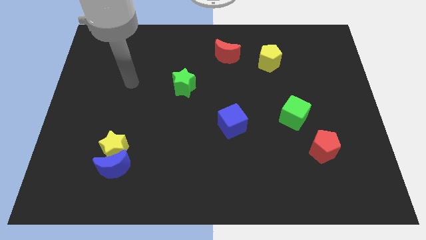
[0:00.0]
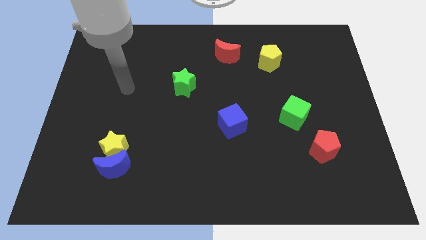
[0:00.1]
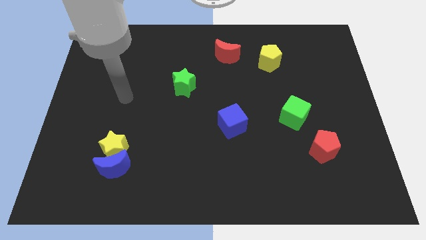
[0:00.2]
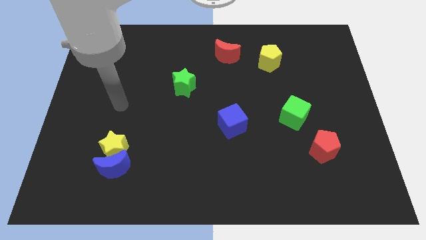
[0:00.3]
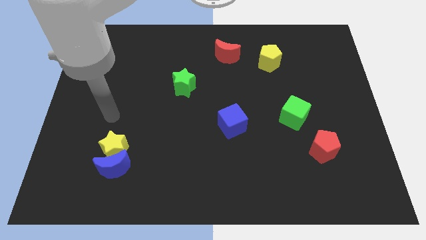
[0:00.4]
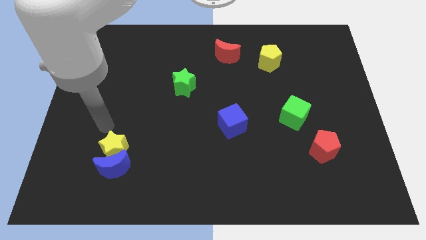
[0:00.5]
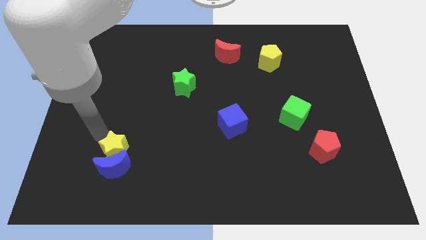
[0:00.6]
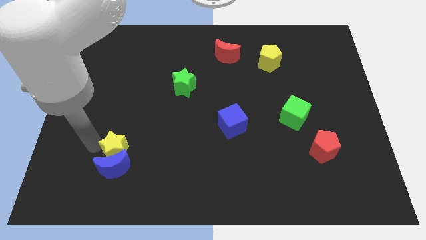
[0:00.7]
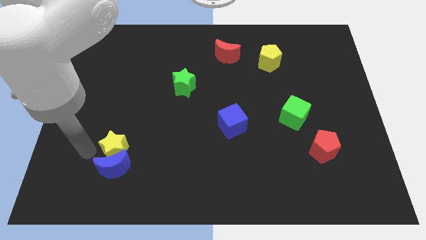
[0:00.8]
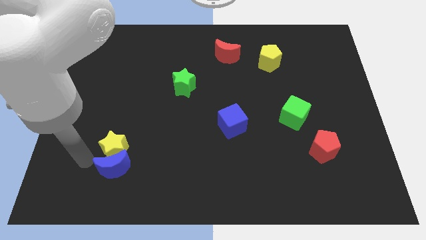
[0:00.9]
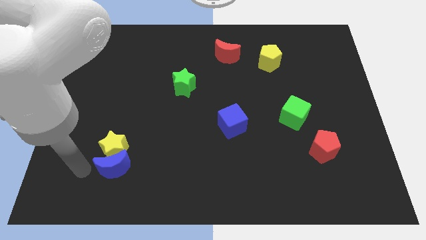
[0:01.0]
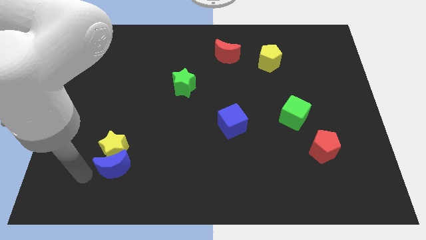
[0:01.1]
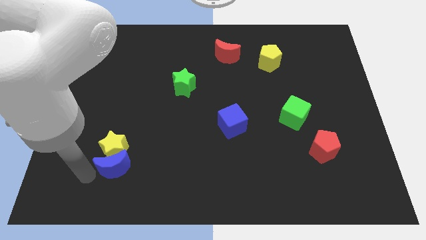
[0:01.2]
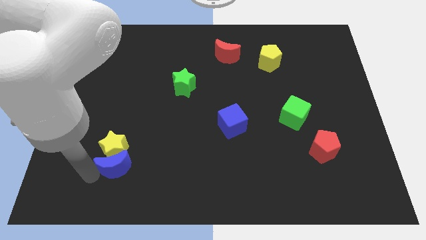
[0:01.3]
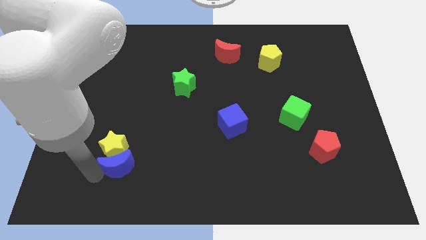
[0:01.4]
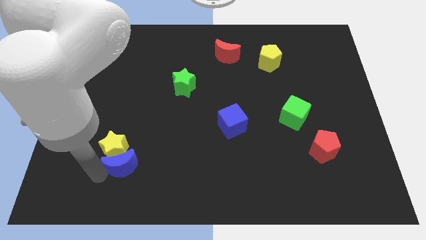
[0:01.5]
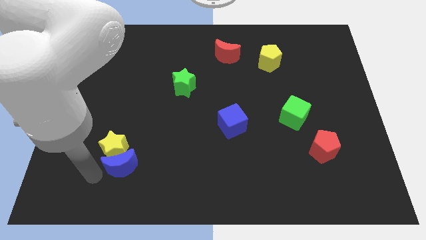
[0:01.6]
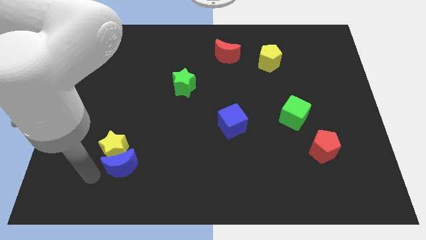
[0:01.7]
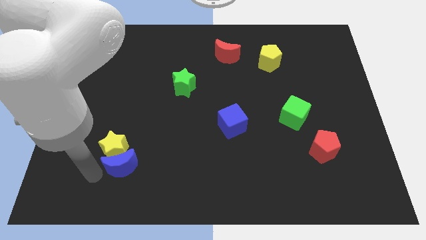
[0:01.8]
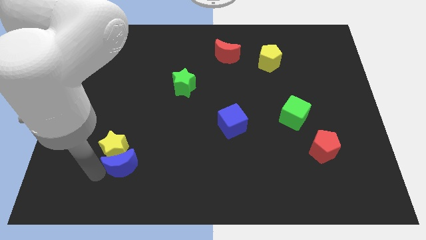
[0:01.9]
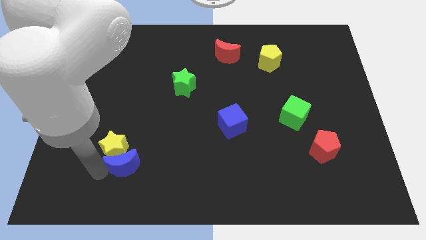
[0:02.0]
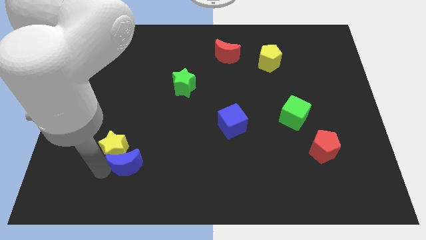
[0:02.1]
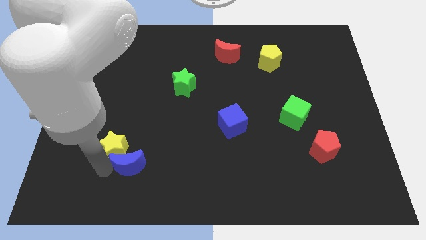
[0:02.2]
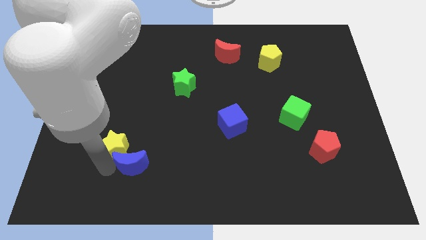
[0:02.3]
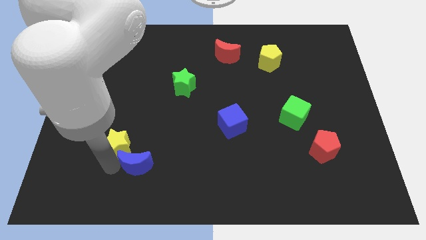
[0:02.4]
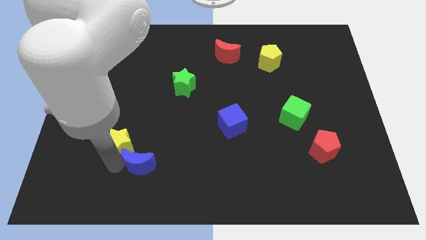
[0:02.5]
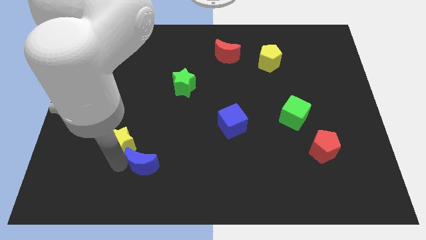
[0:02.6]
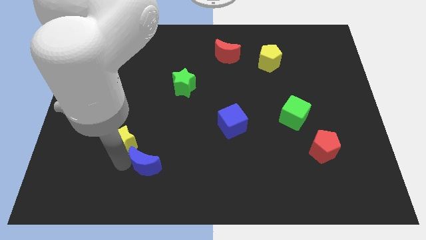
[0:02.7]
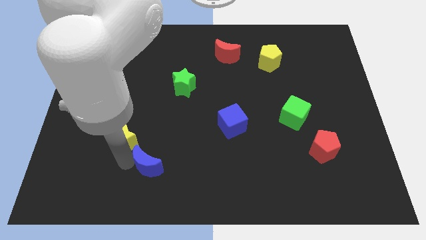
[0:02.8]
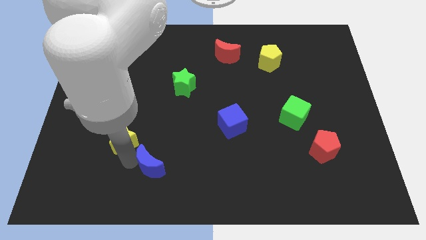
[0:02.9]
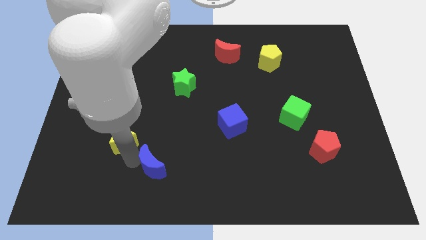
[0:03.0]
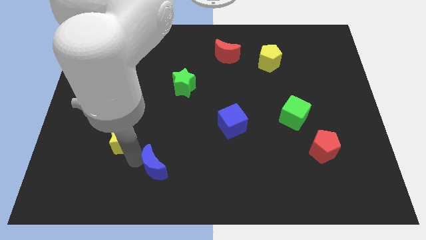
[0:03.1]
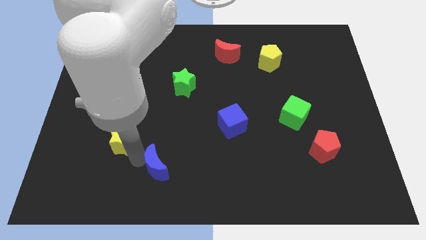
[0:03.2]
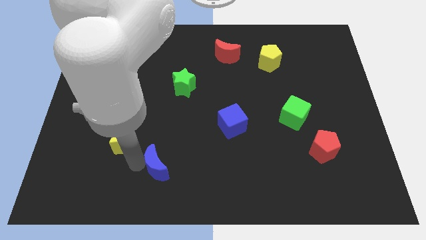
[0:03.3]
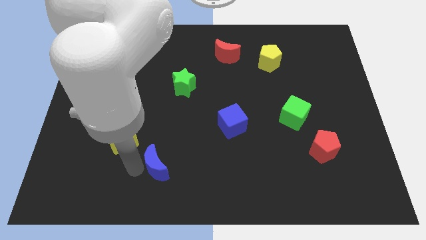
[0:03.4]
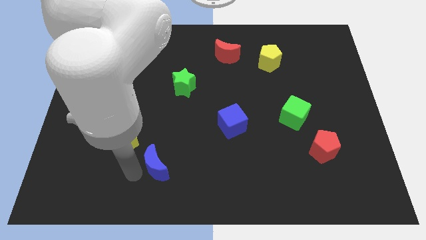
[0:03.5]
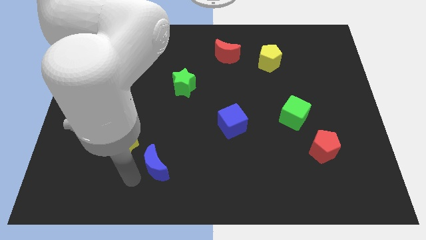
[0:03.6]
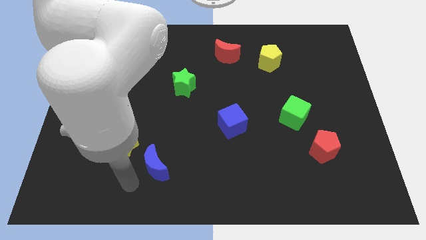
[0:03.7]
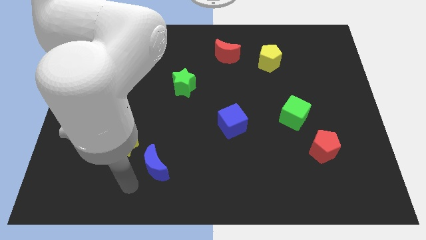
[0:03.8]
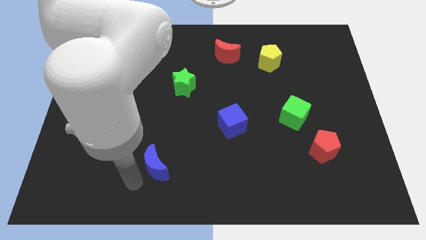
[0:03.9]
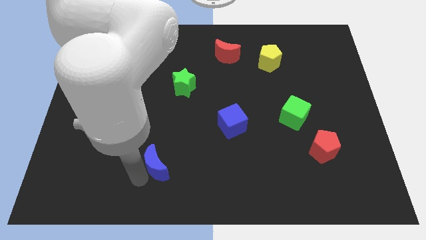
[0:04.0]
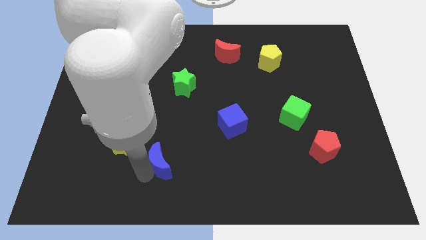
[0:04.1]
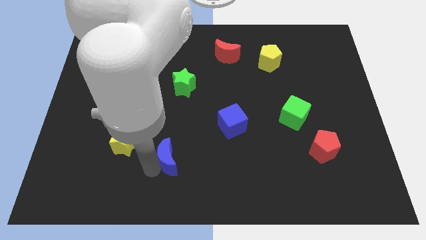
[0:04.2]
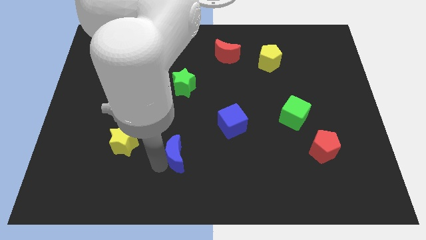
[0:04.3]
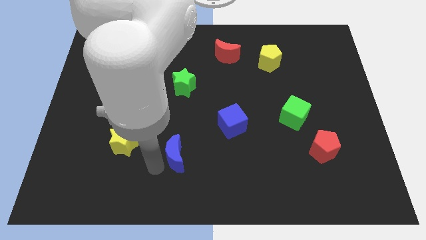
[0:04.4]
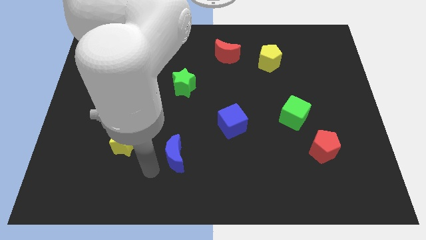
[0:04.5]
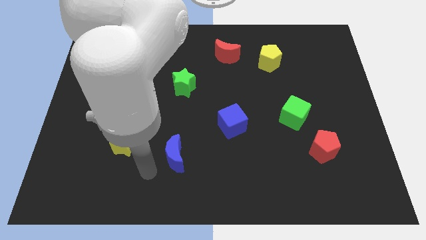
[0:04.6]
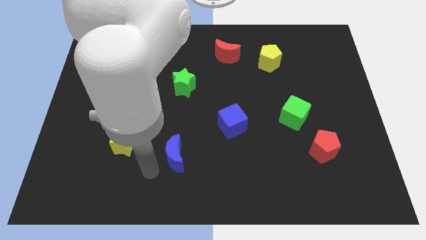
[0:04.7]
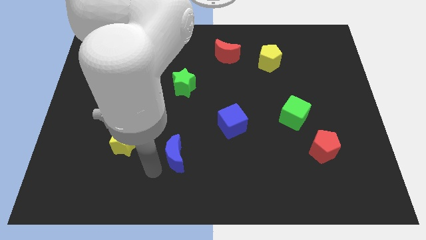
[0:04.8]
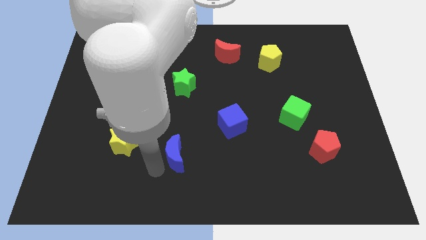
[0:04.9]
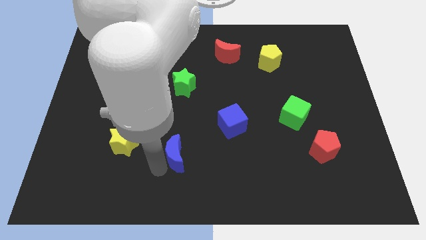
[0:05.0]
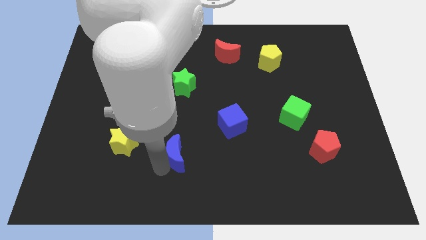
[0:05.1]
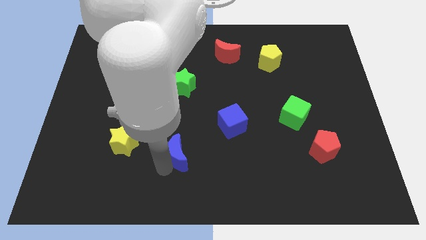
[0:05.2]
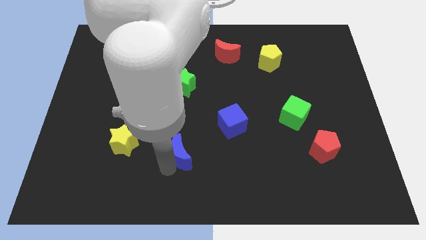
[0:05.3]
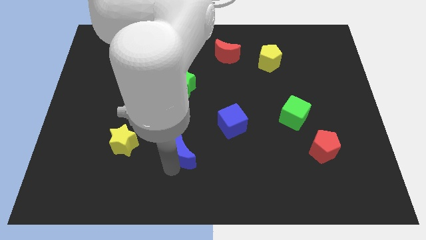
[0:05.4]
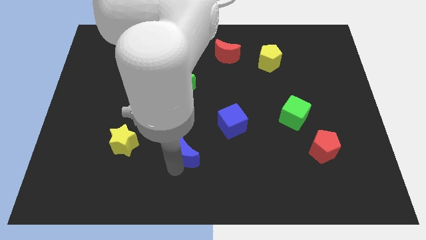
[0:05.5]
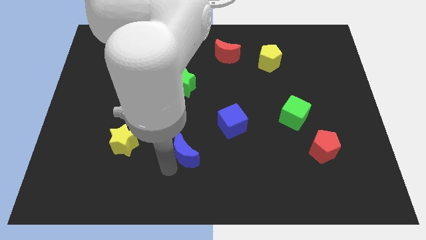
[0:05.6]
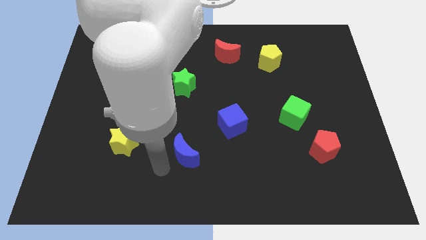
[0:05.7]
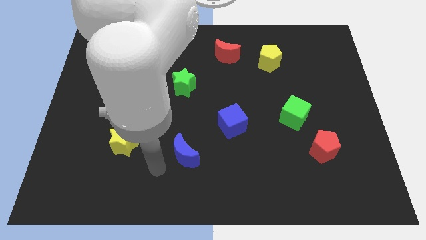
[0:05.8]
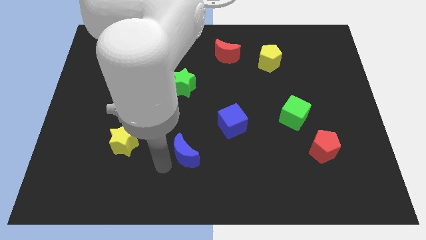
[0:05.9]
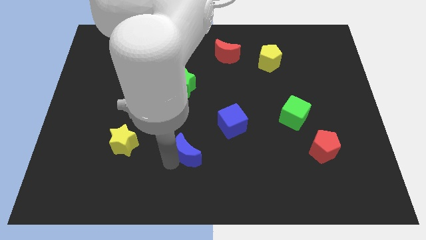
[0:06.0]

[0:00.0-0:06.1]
put the blue moon to the bottom left of the blue cube

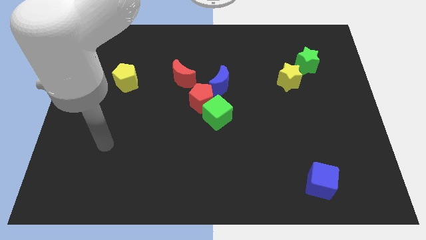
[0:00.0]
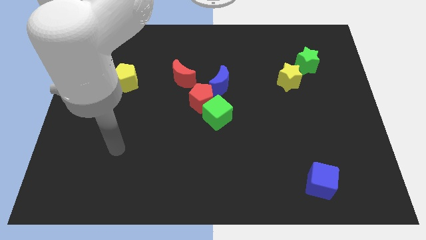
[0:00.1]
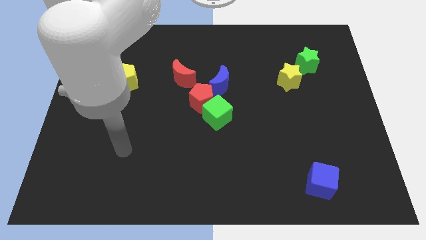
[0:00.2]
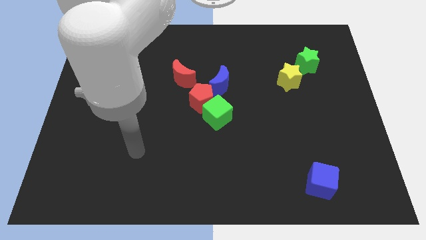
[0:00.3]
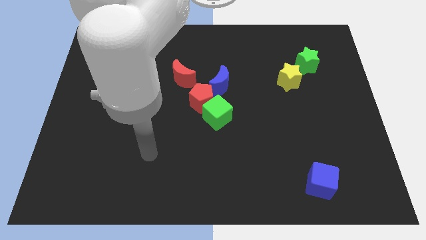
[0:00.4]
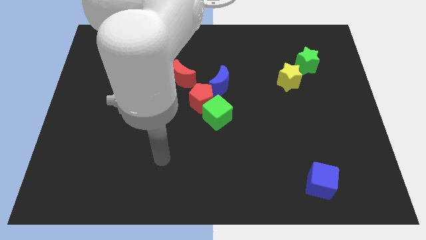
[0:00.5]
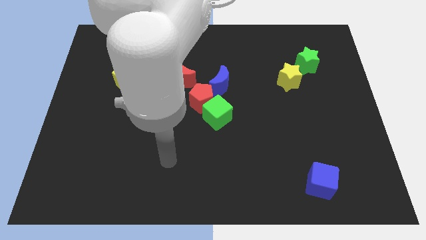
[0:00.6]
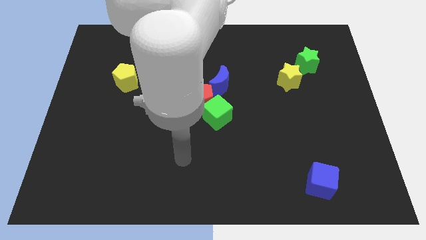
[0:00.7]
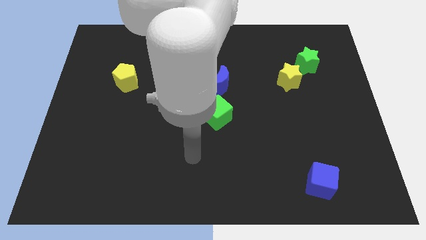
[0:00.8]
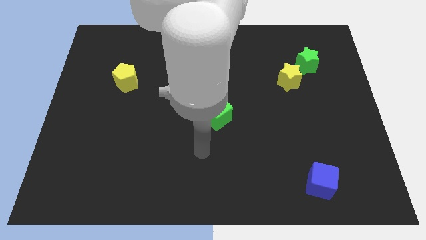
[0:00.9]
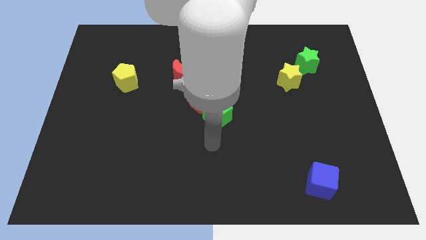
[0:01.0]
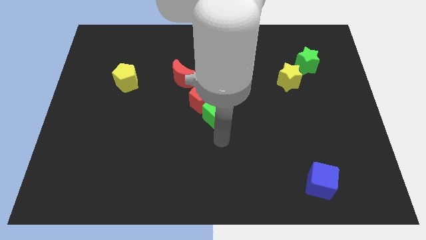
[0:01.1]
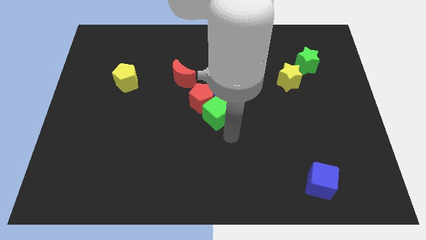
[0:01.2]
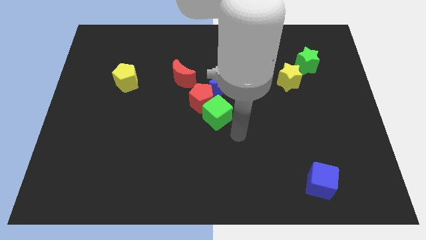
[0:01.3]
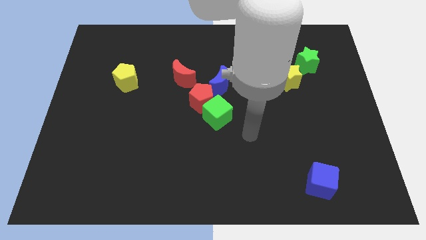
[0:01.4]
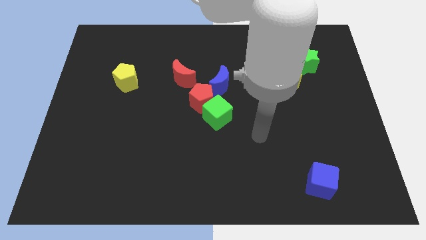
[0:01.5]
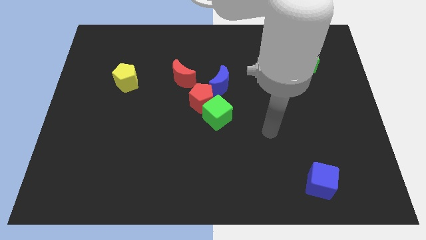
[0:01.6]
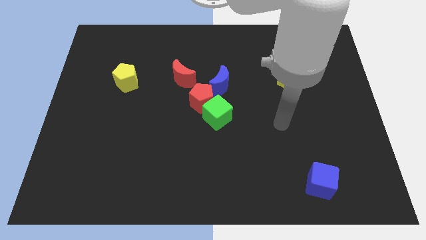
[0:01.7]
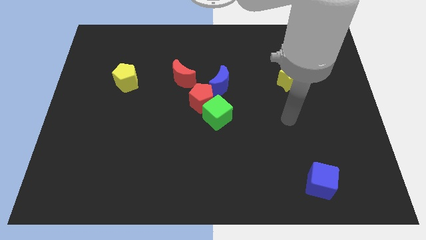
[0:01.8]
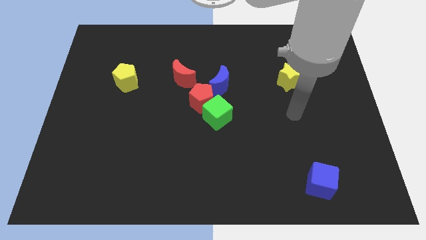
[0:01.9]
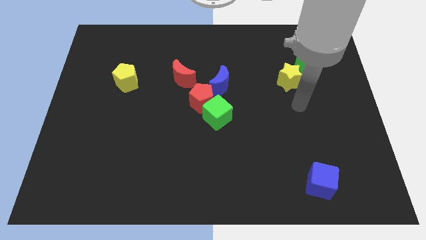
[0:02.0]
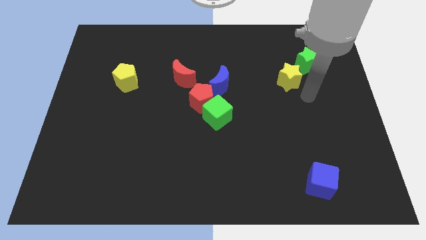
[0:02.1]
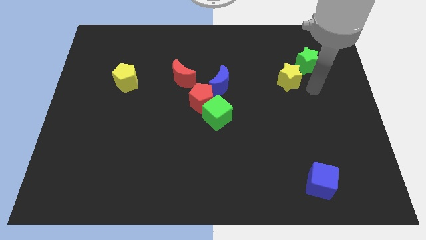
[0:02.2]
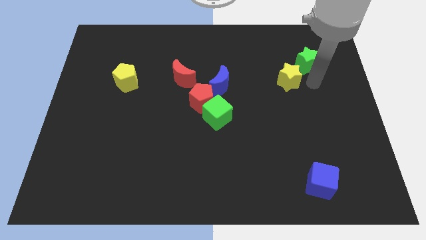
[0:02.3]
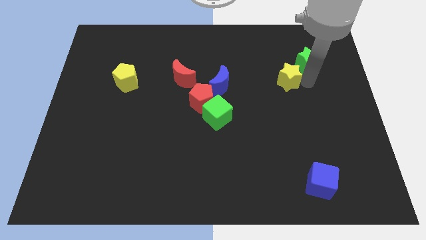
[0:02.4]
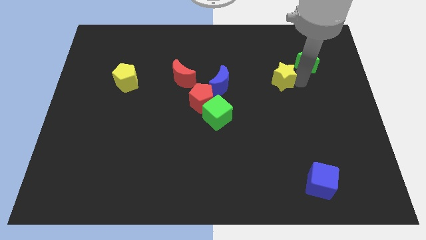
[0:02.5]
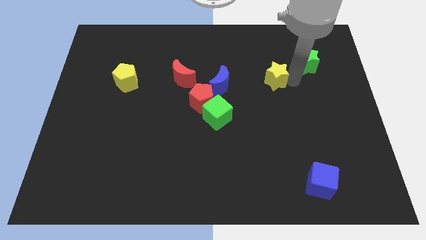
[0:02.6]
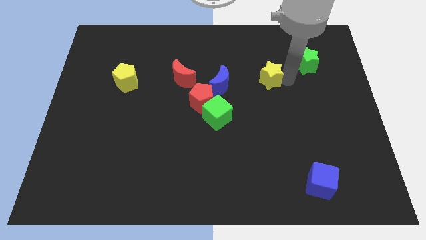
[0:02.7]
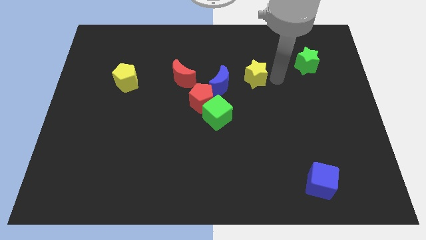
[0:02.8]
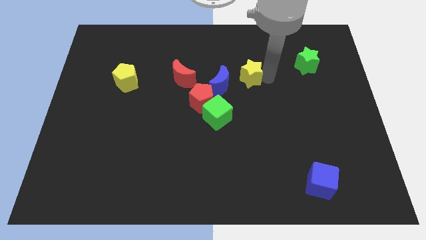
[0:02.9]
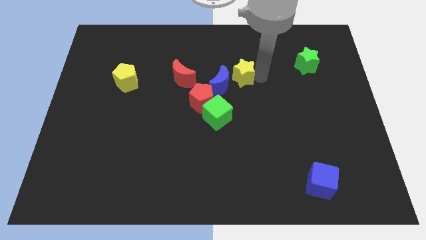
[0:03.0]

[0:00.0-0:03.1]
slide the yellow star just right of the red moon
